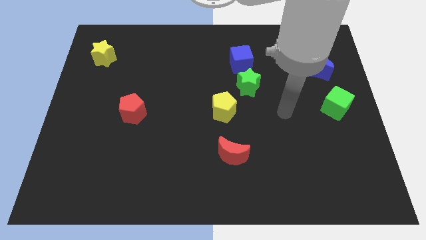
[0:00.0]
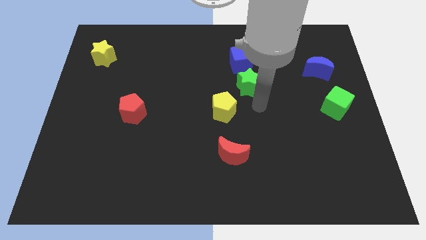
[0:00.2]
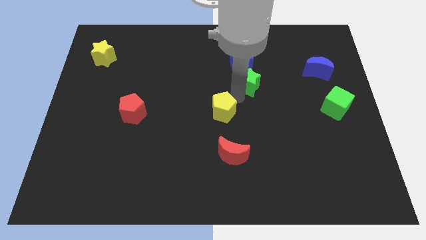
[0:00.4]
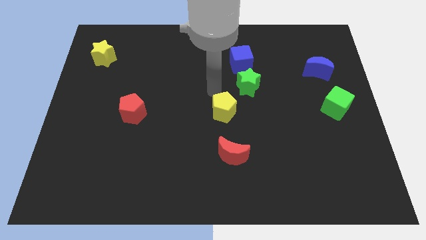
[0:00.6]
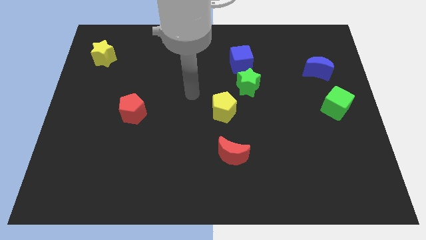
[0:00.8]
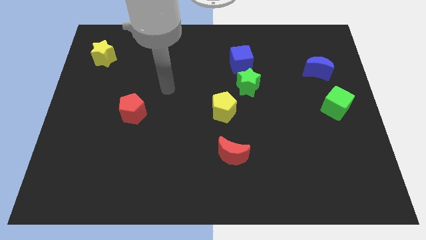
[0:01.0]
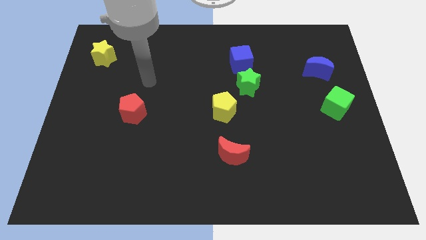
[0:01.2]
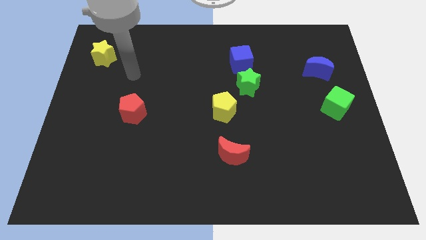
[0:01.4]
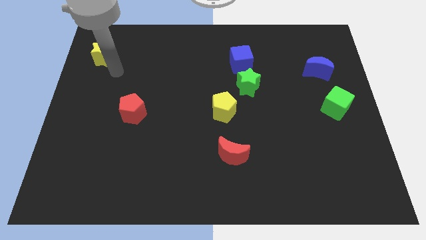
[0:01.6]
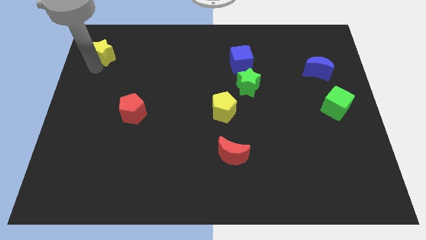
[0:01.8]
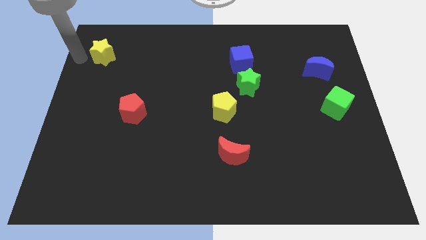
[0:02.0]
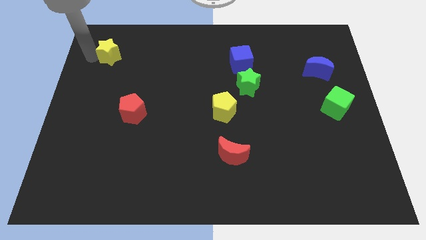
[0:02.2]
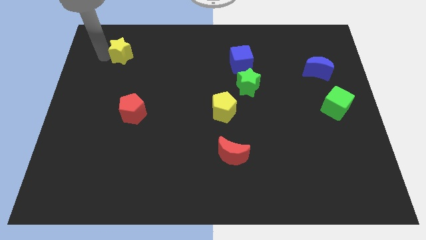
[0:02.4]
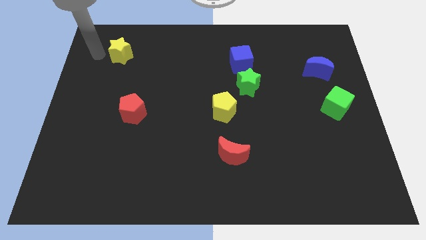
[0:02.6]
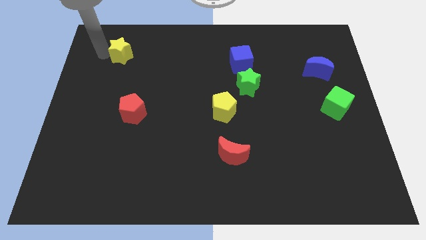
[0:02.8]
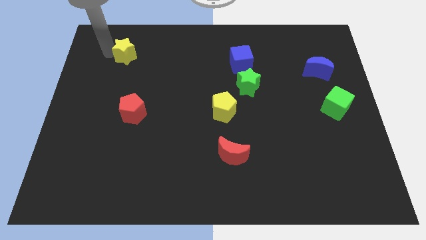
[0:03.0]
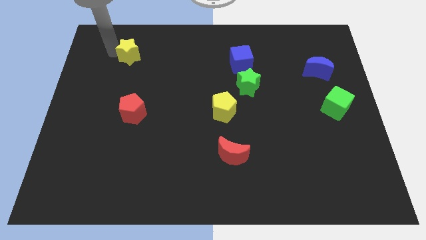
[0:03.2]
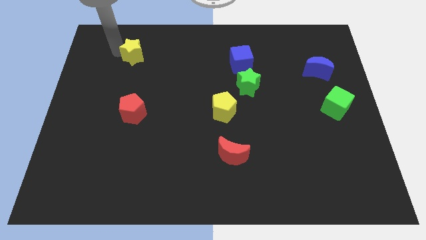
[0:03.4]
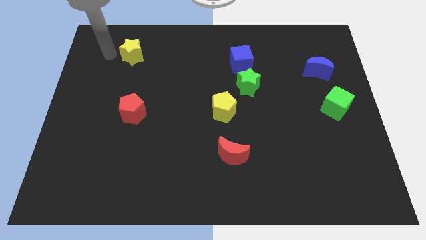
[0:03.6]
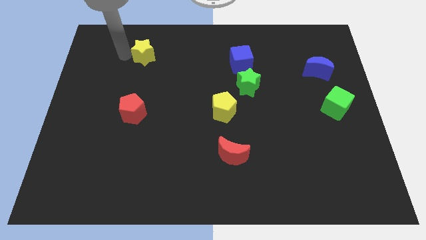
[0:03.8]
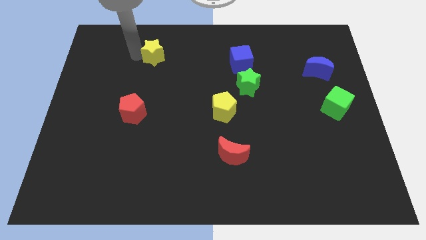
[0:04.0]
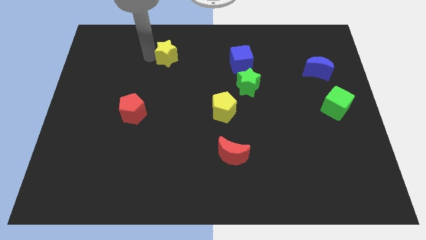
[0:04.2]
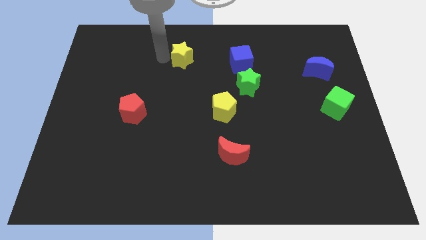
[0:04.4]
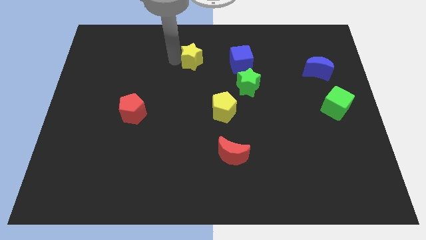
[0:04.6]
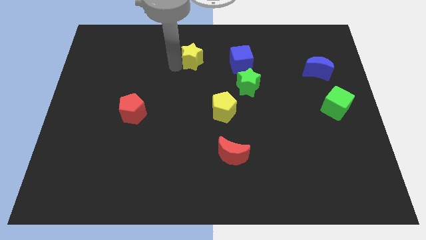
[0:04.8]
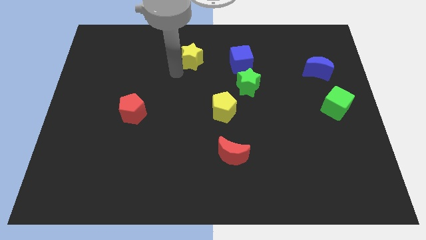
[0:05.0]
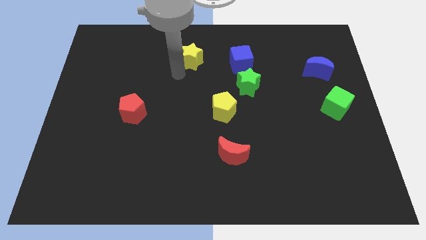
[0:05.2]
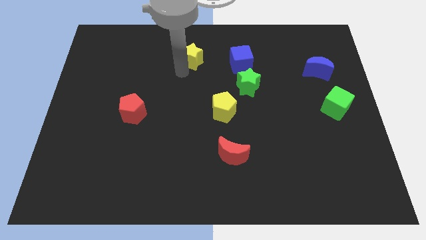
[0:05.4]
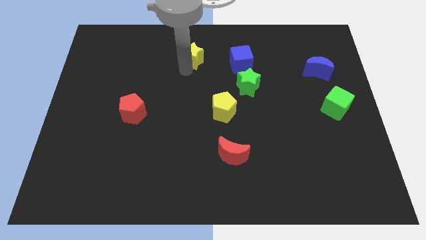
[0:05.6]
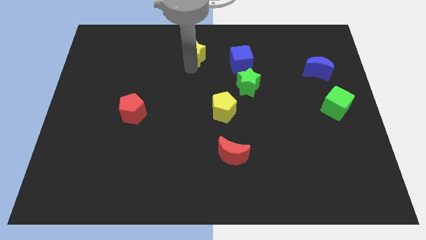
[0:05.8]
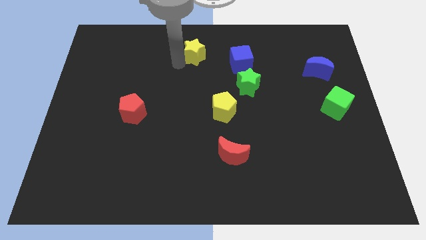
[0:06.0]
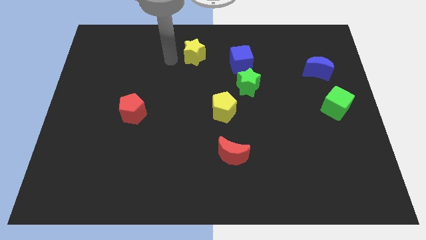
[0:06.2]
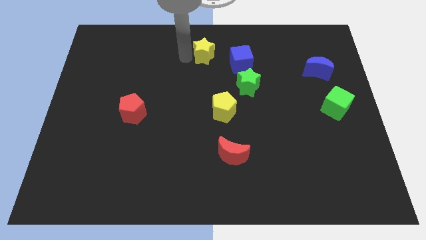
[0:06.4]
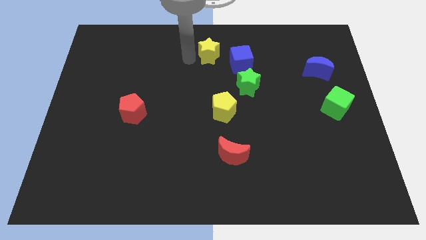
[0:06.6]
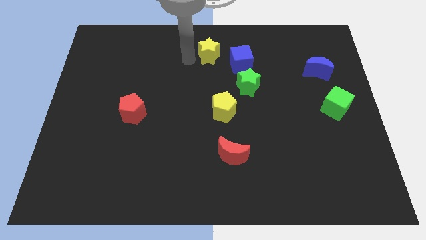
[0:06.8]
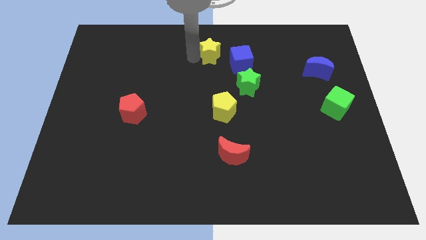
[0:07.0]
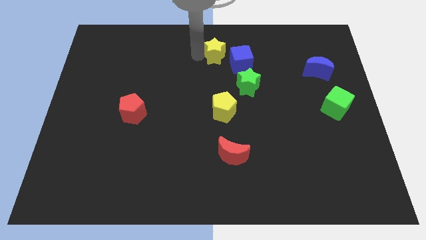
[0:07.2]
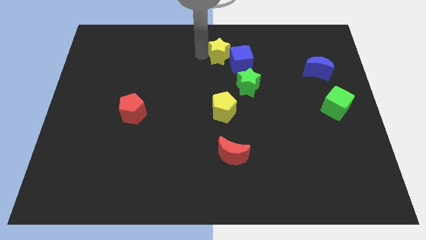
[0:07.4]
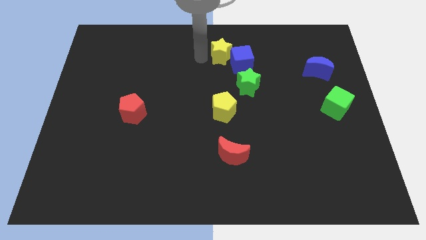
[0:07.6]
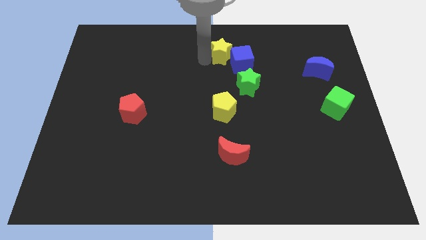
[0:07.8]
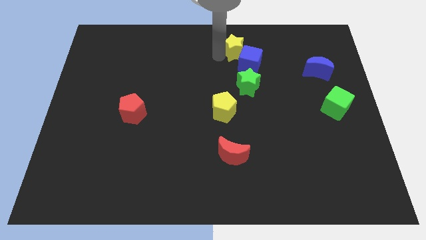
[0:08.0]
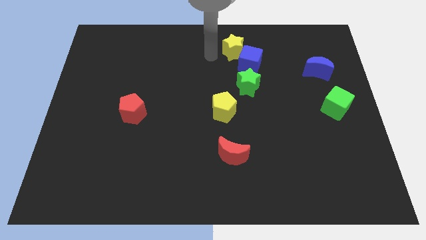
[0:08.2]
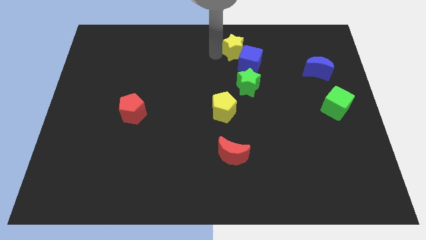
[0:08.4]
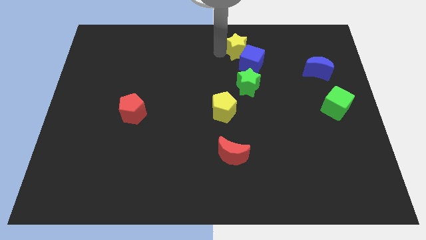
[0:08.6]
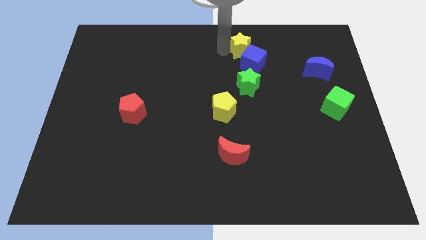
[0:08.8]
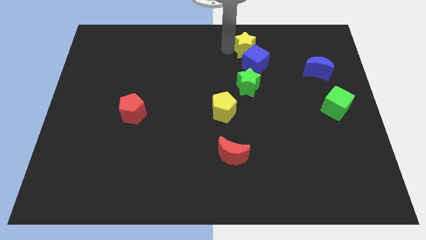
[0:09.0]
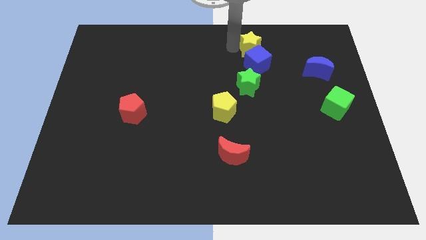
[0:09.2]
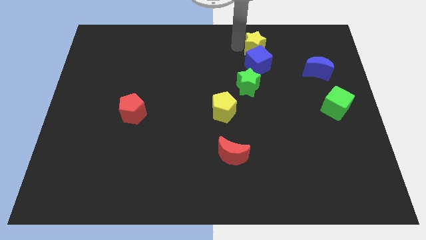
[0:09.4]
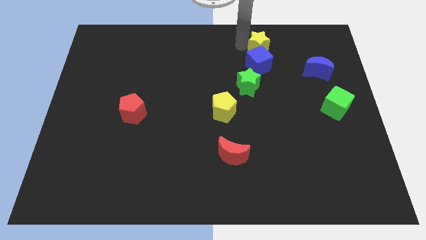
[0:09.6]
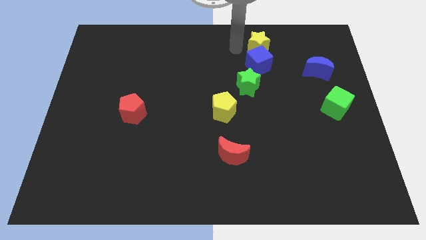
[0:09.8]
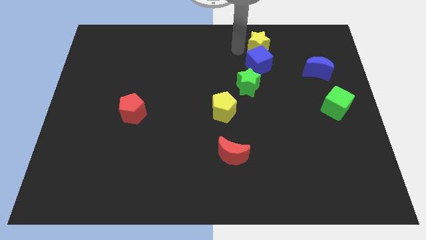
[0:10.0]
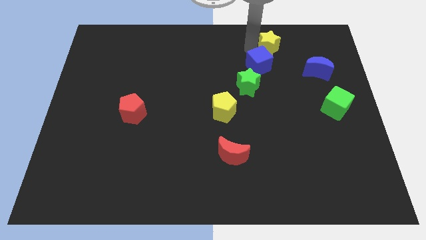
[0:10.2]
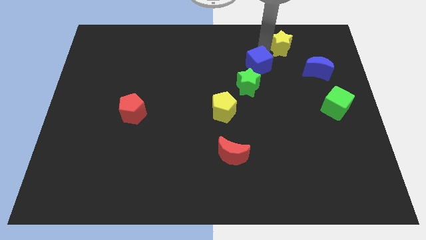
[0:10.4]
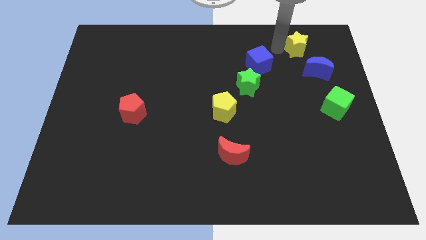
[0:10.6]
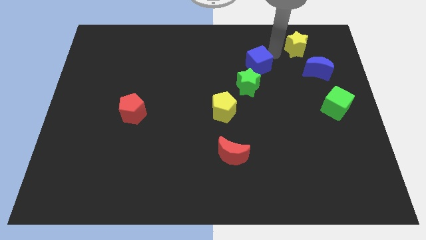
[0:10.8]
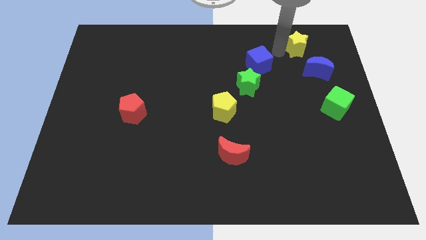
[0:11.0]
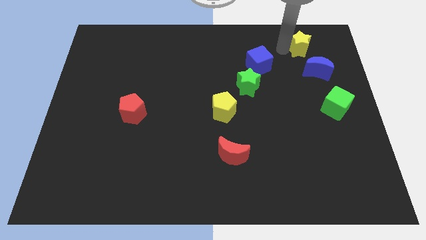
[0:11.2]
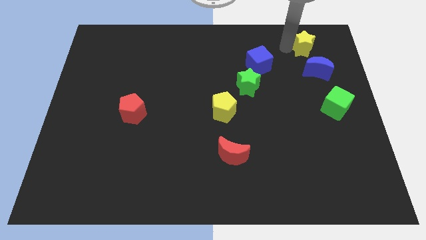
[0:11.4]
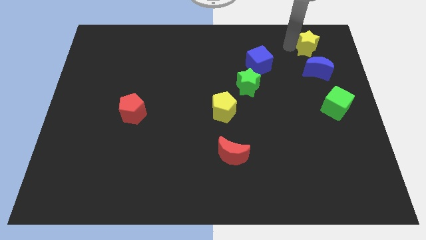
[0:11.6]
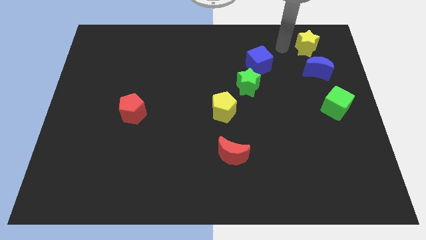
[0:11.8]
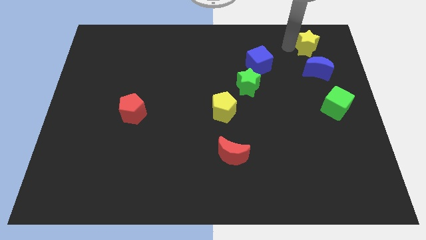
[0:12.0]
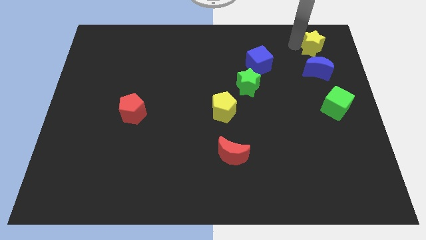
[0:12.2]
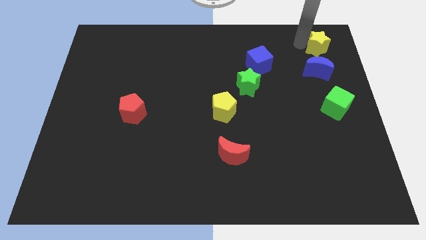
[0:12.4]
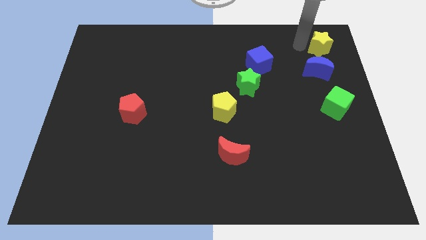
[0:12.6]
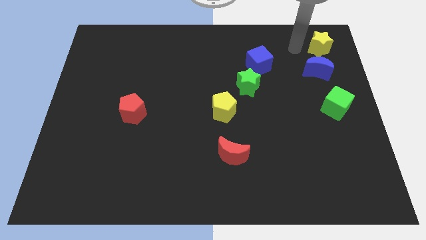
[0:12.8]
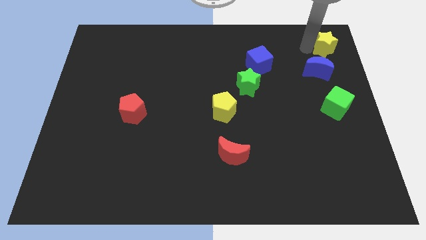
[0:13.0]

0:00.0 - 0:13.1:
push the yellow star to the top right of the board

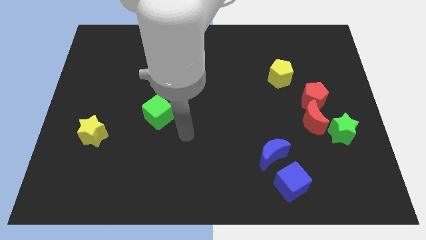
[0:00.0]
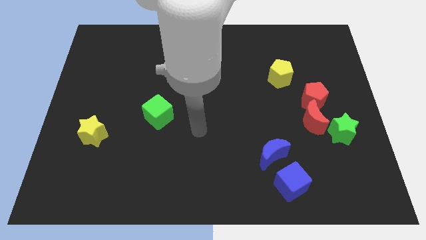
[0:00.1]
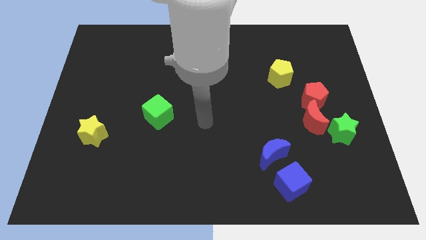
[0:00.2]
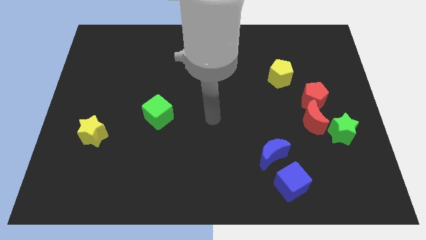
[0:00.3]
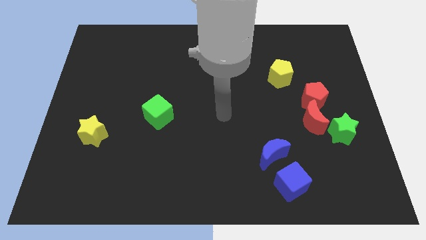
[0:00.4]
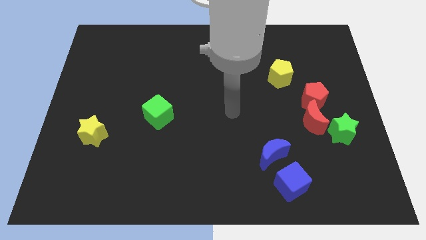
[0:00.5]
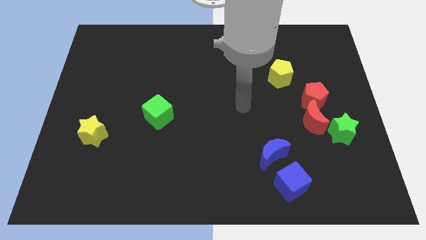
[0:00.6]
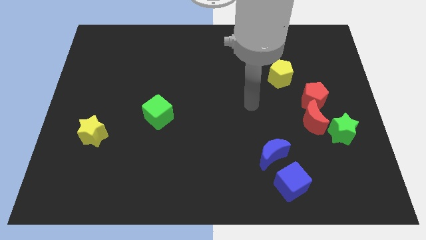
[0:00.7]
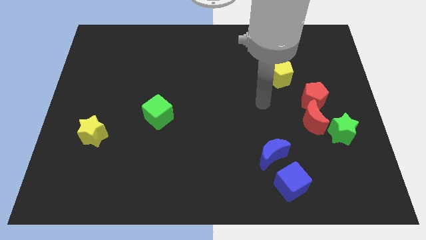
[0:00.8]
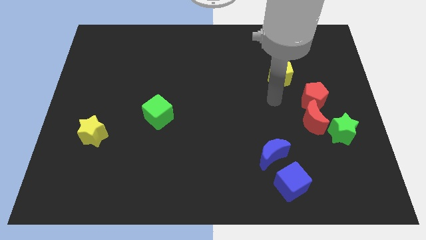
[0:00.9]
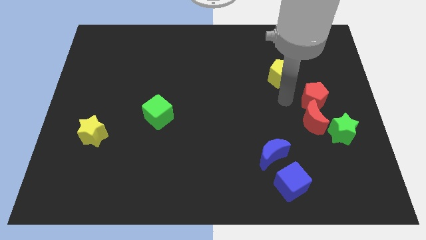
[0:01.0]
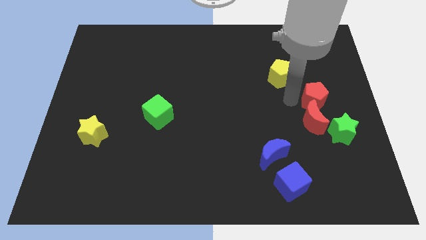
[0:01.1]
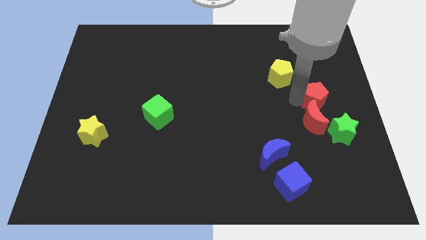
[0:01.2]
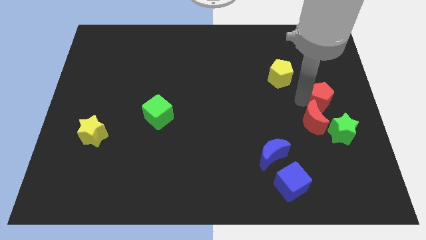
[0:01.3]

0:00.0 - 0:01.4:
slide the red pentagon to the center right
